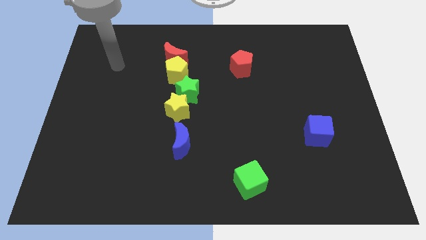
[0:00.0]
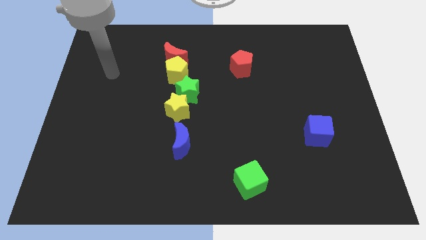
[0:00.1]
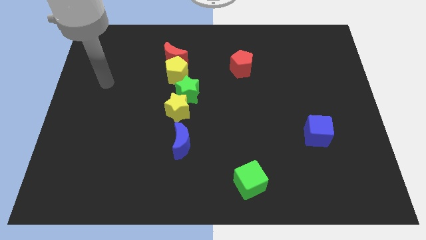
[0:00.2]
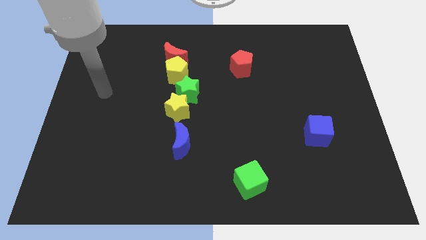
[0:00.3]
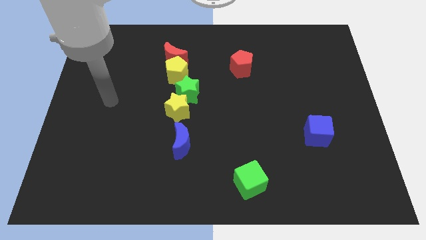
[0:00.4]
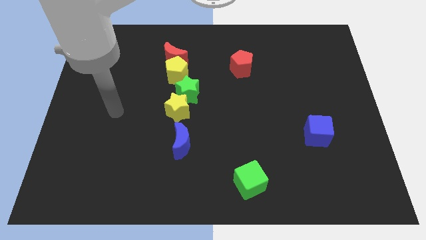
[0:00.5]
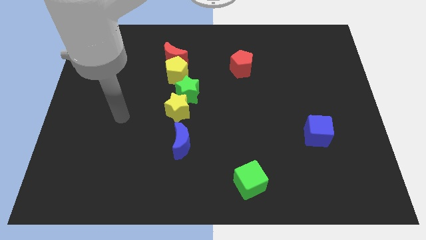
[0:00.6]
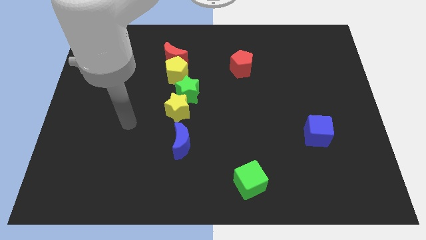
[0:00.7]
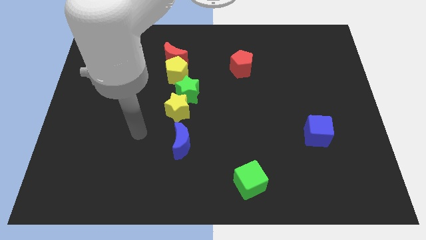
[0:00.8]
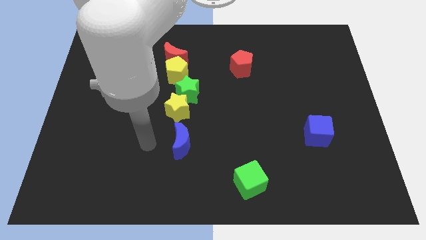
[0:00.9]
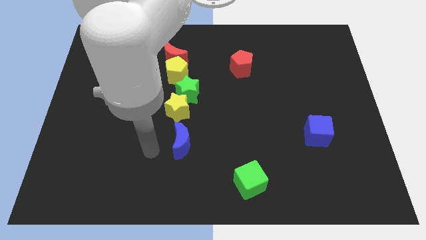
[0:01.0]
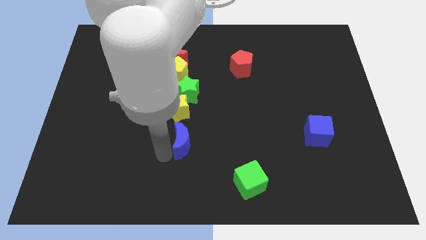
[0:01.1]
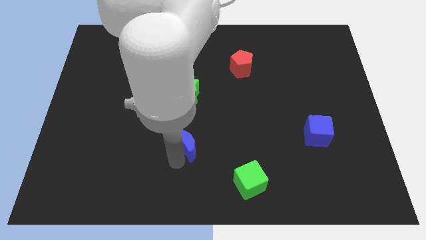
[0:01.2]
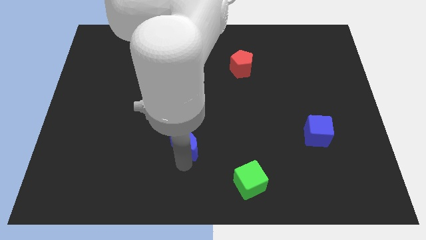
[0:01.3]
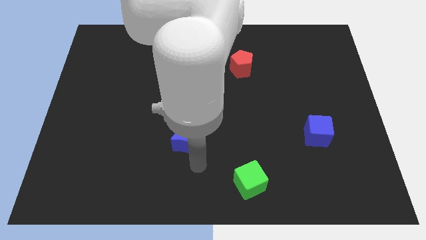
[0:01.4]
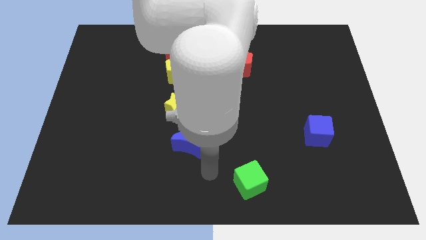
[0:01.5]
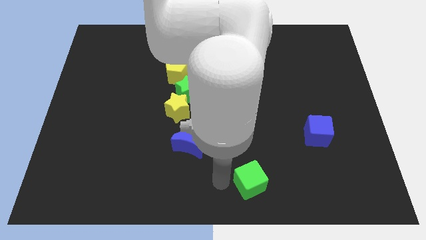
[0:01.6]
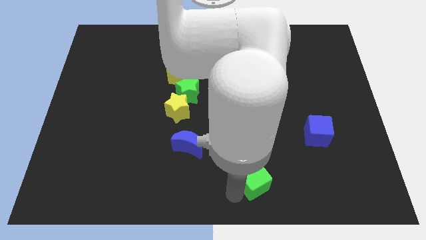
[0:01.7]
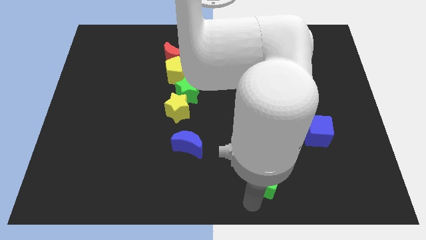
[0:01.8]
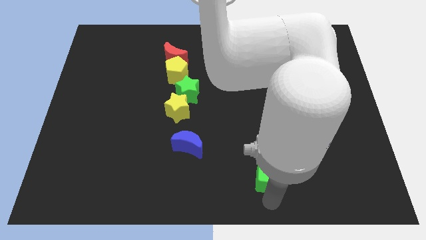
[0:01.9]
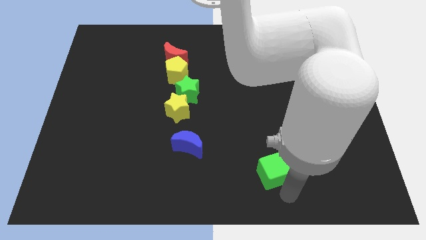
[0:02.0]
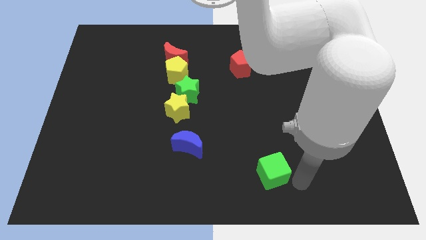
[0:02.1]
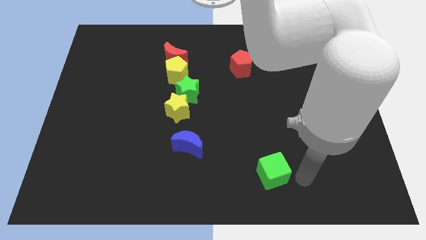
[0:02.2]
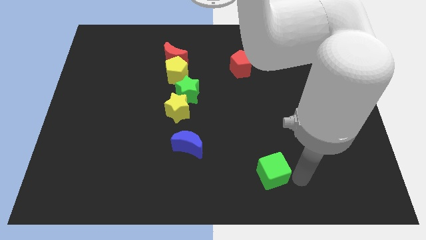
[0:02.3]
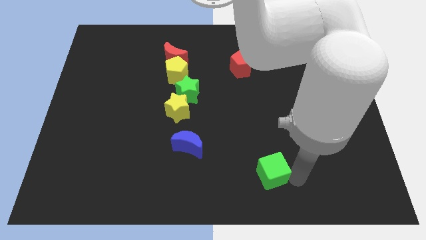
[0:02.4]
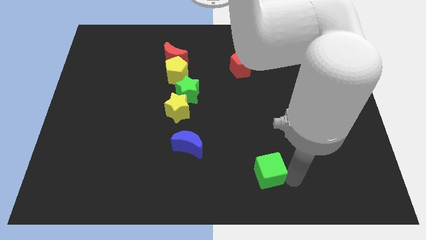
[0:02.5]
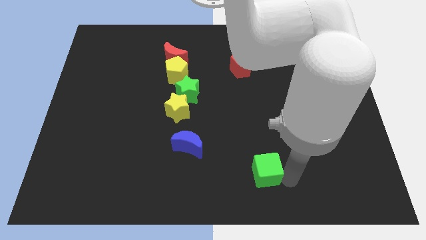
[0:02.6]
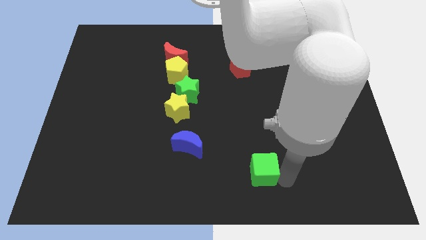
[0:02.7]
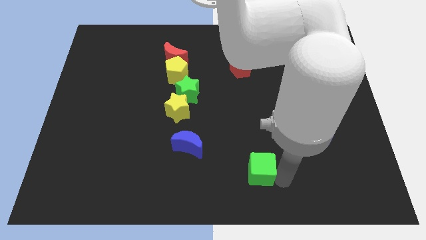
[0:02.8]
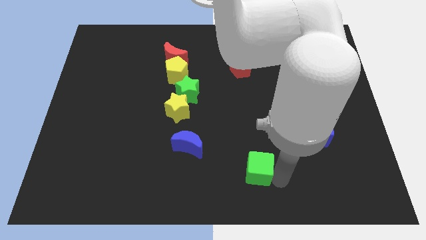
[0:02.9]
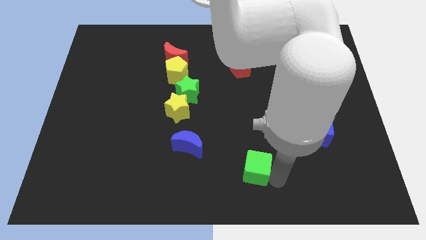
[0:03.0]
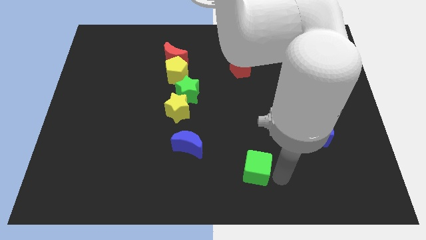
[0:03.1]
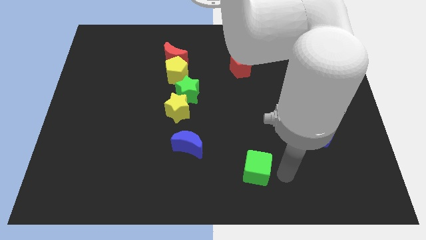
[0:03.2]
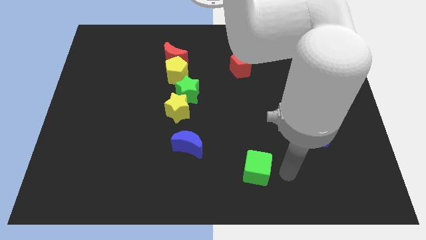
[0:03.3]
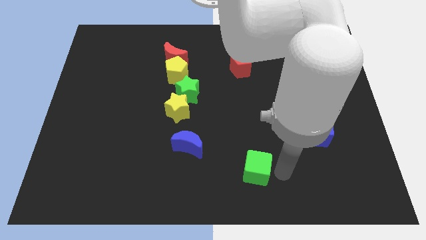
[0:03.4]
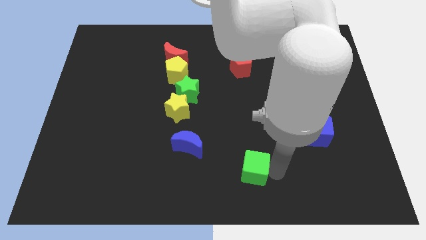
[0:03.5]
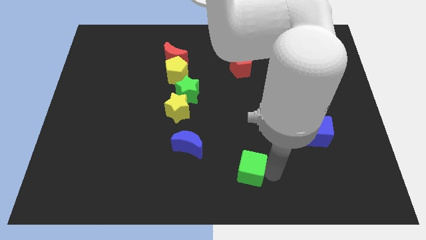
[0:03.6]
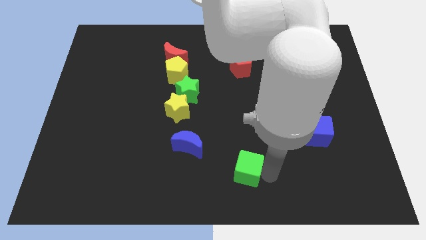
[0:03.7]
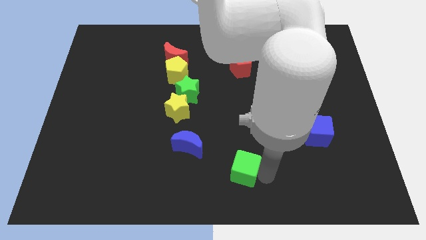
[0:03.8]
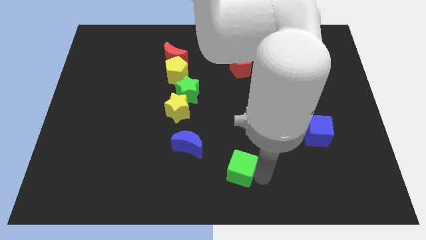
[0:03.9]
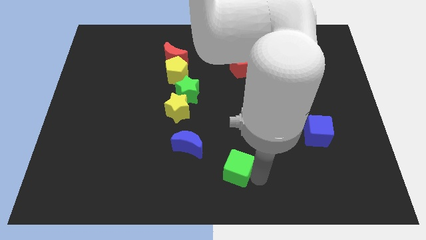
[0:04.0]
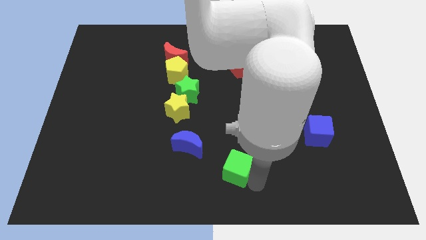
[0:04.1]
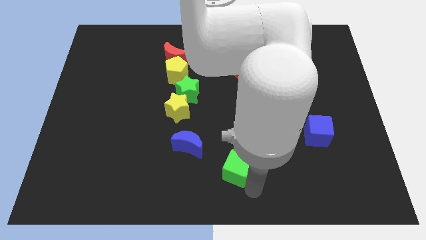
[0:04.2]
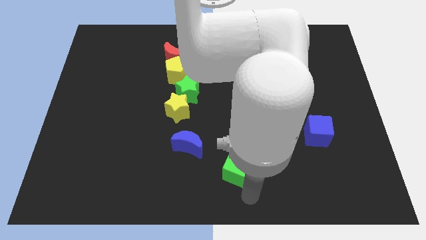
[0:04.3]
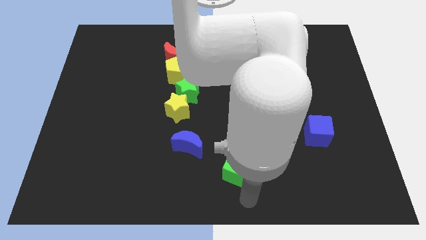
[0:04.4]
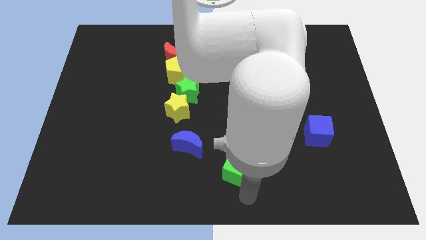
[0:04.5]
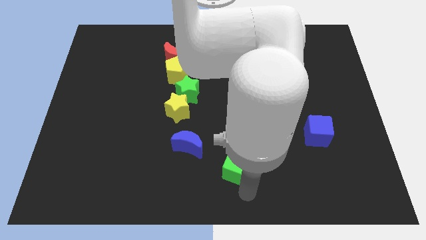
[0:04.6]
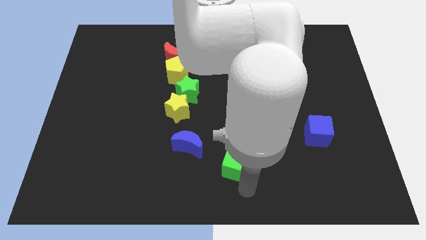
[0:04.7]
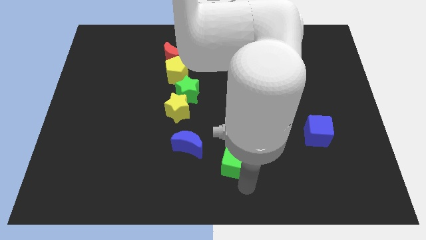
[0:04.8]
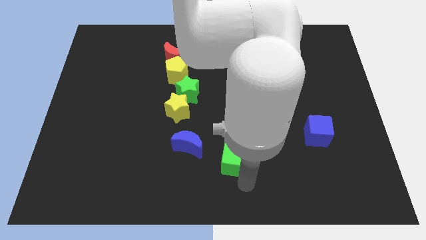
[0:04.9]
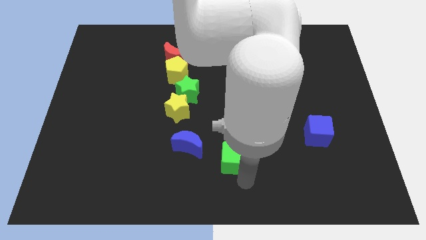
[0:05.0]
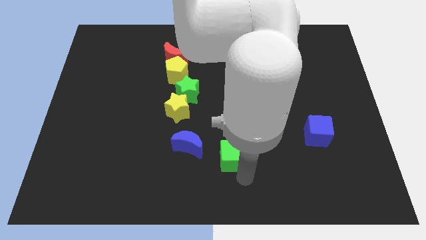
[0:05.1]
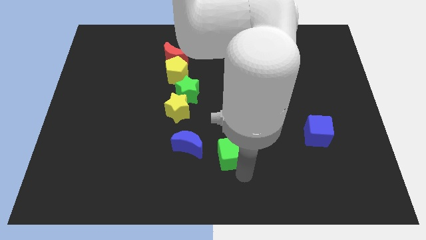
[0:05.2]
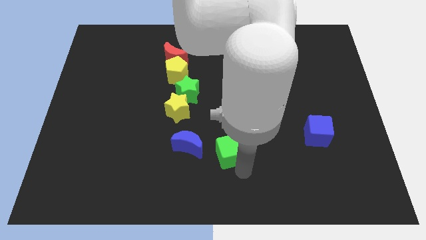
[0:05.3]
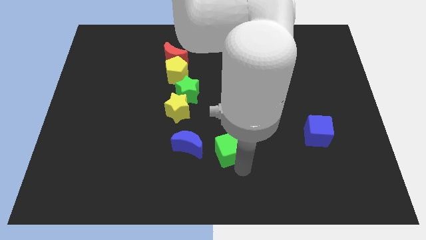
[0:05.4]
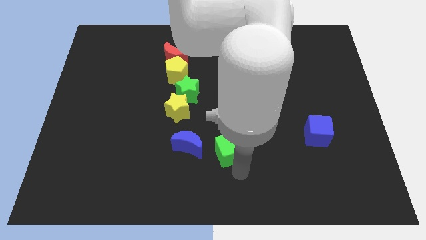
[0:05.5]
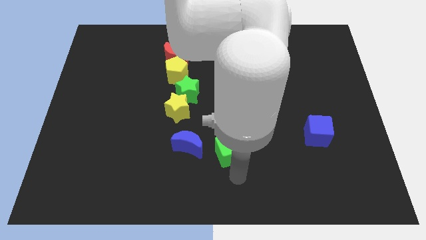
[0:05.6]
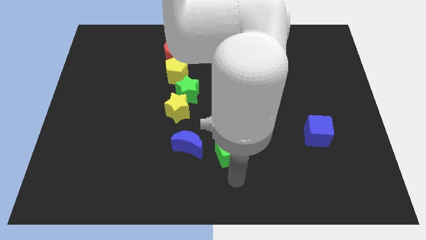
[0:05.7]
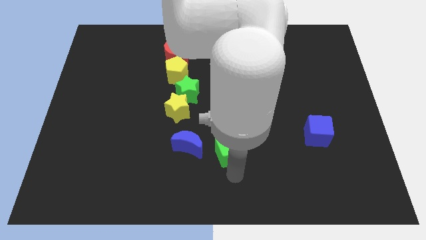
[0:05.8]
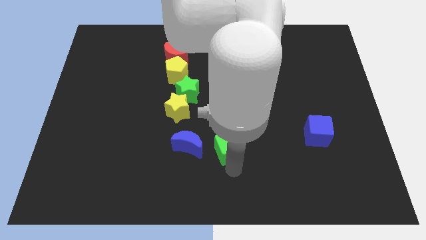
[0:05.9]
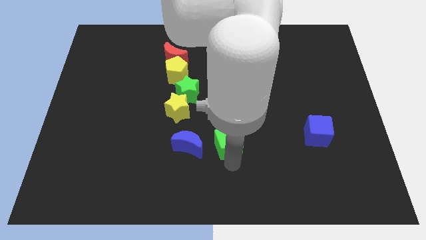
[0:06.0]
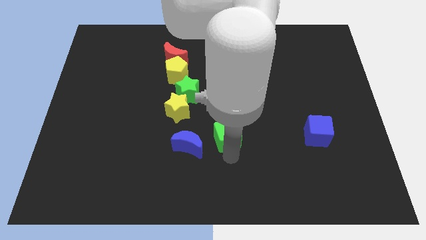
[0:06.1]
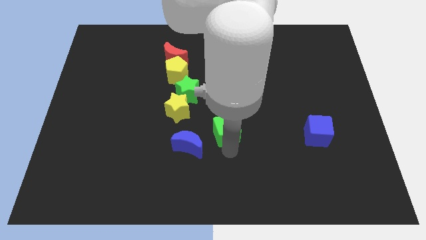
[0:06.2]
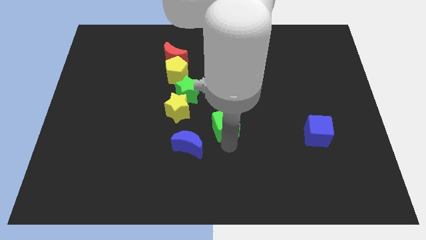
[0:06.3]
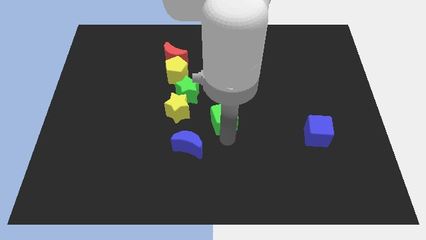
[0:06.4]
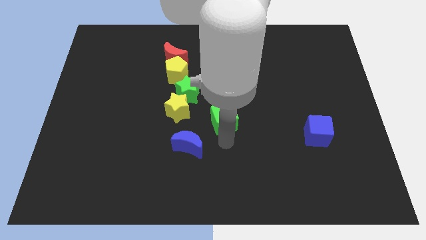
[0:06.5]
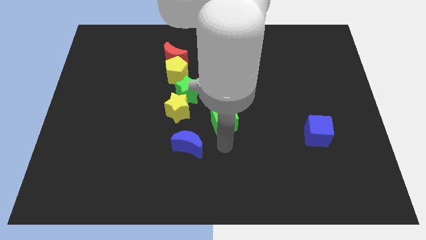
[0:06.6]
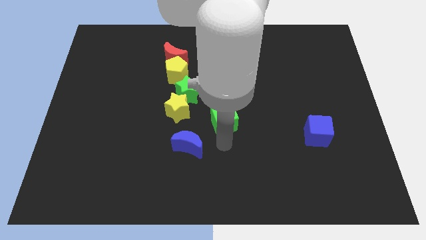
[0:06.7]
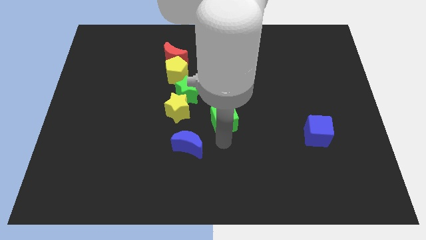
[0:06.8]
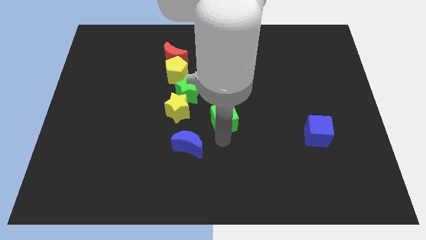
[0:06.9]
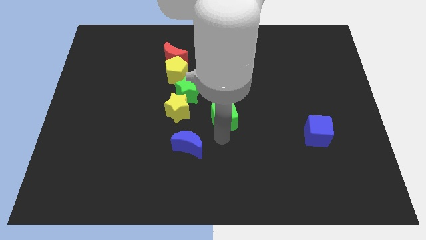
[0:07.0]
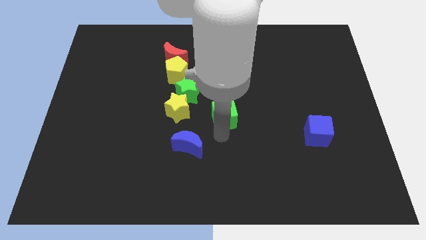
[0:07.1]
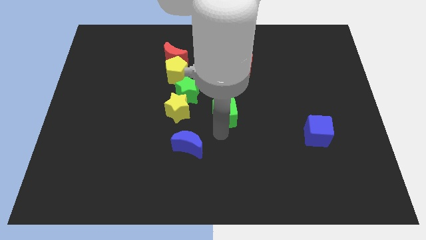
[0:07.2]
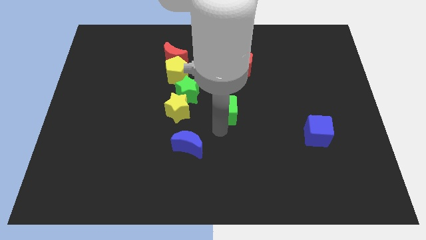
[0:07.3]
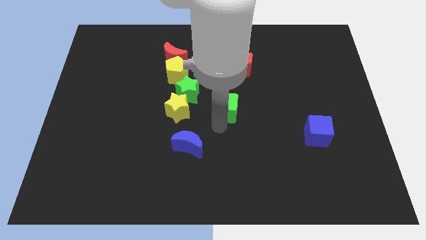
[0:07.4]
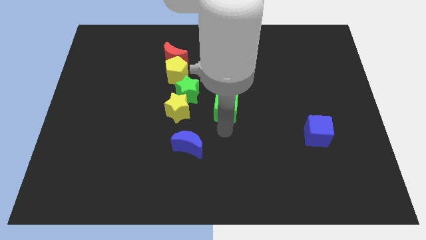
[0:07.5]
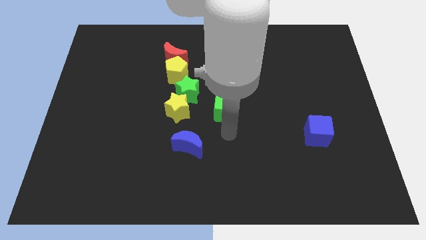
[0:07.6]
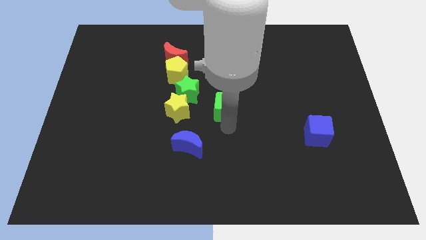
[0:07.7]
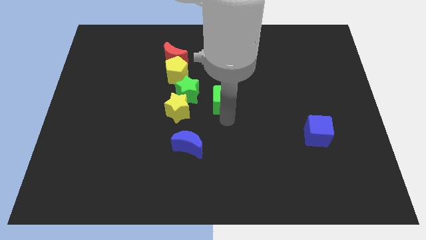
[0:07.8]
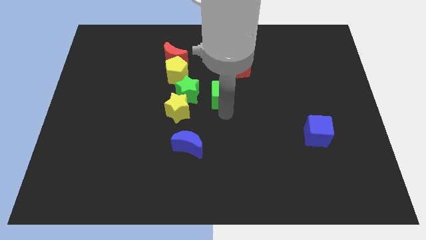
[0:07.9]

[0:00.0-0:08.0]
push the green cube to the bottom left of the red pentagon
